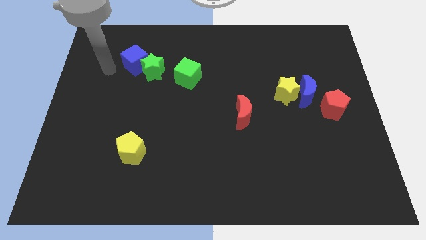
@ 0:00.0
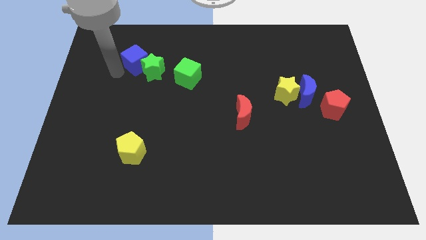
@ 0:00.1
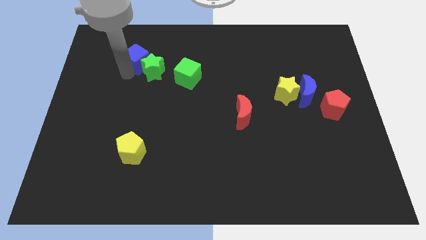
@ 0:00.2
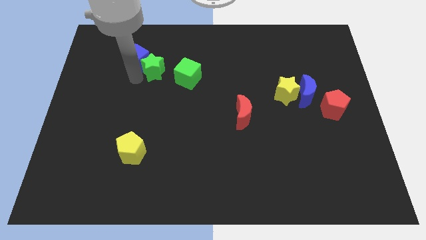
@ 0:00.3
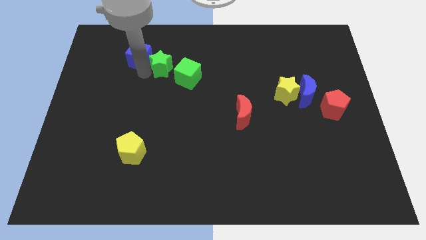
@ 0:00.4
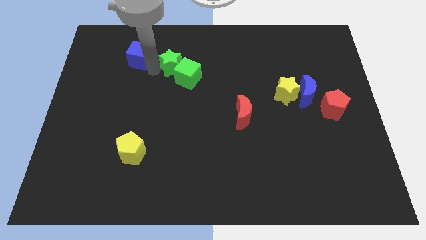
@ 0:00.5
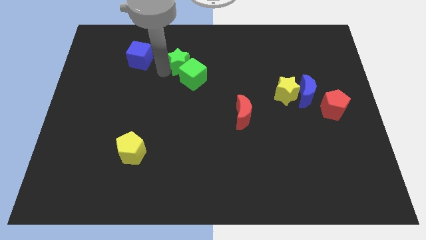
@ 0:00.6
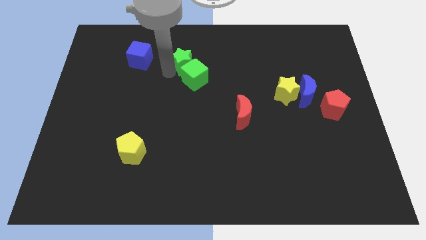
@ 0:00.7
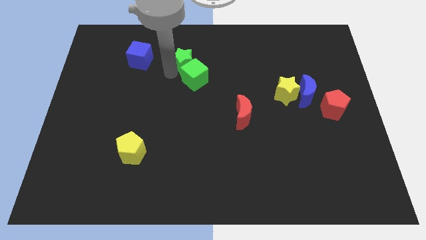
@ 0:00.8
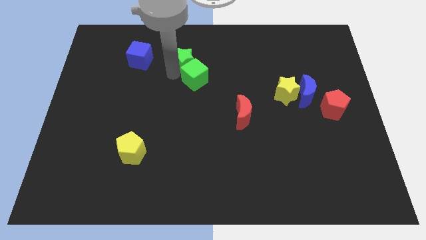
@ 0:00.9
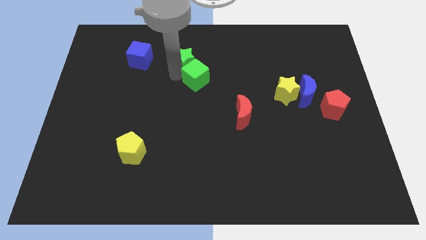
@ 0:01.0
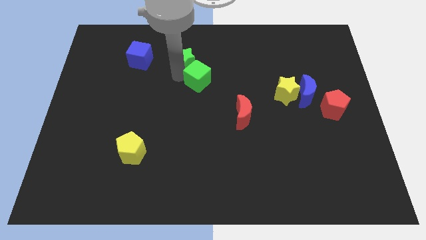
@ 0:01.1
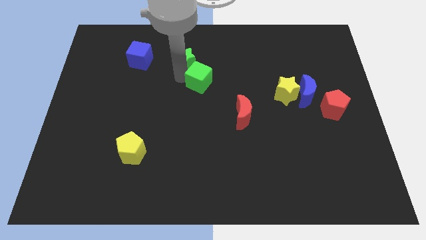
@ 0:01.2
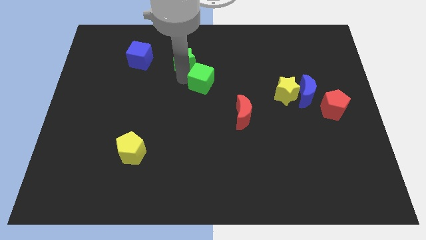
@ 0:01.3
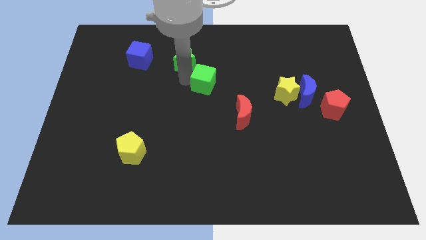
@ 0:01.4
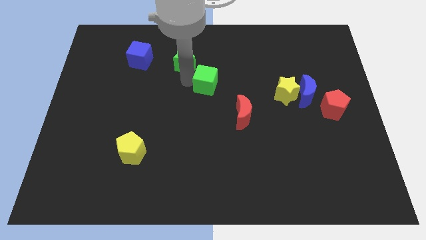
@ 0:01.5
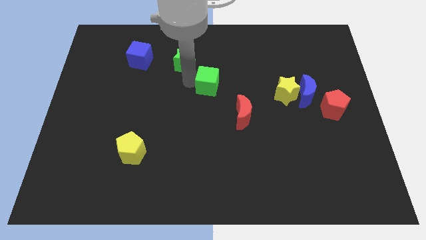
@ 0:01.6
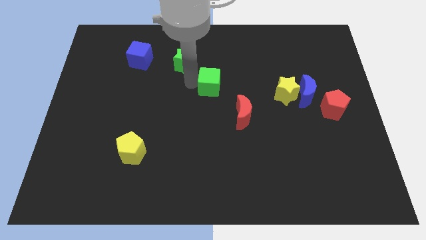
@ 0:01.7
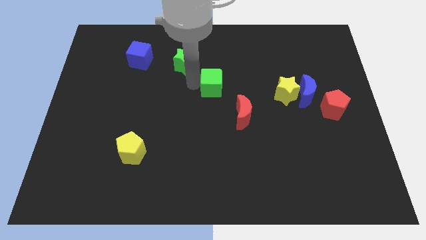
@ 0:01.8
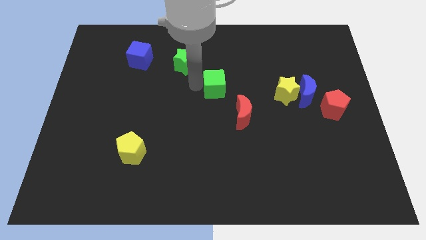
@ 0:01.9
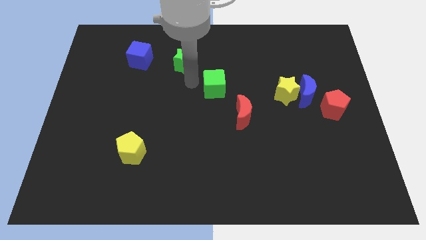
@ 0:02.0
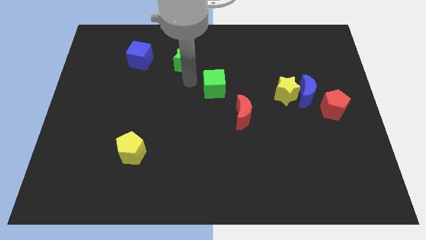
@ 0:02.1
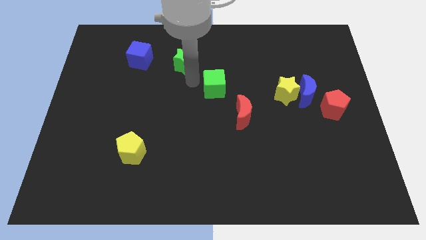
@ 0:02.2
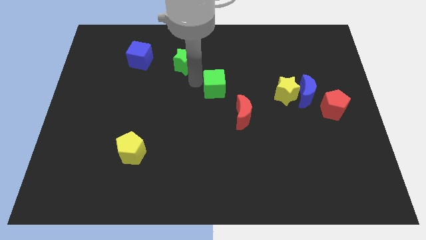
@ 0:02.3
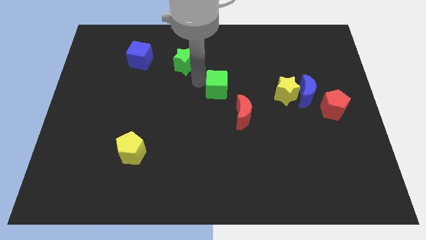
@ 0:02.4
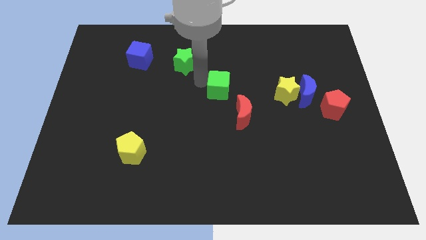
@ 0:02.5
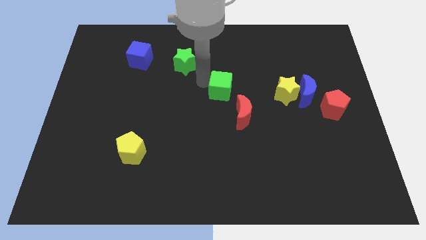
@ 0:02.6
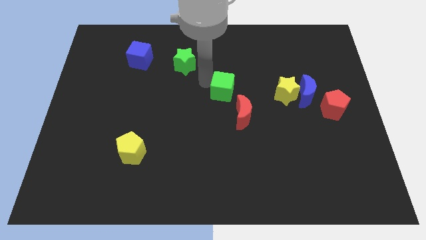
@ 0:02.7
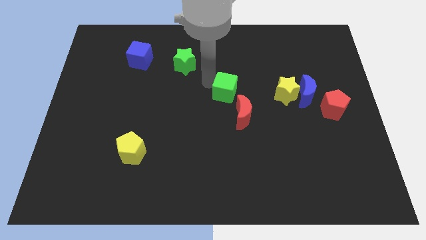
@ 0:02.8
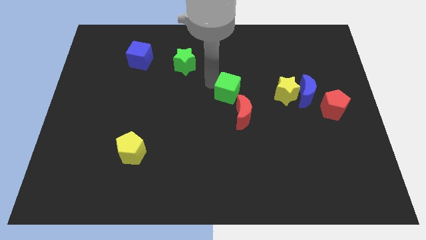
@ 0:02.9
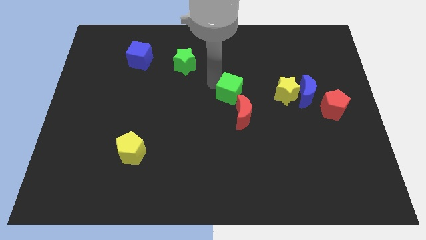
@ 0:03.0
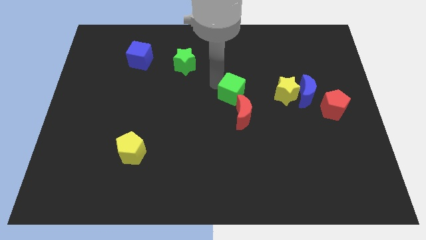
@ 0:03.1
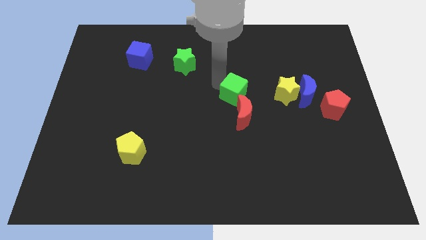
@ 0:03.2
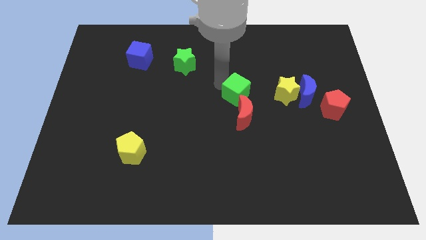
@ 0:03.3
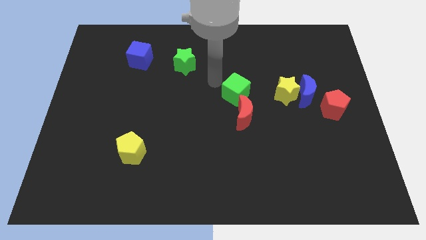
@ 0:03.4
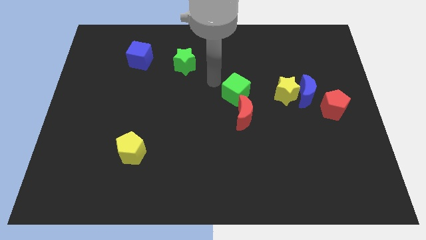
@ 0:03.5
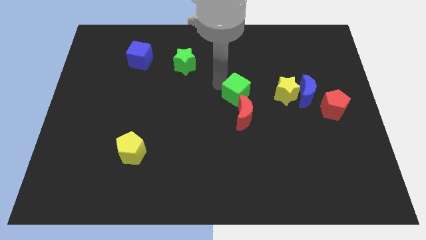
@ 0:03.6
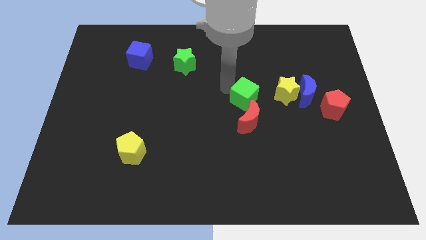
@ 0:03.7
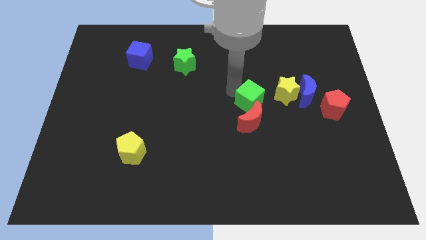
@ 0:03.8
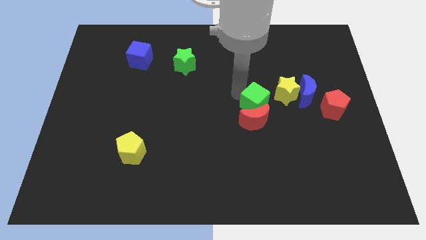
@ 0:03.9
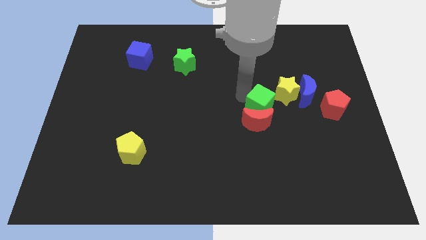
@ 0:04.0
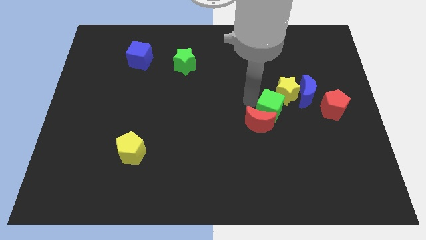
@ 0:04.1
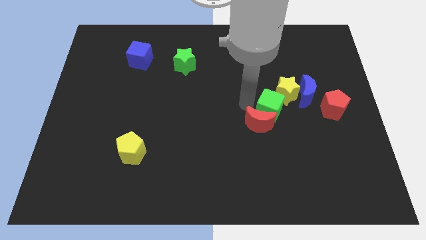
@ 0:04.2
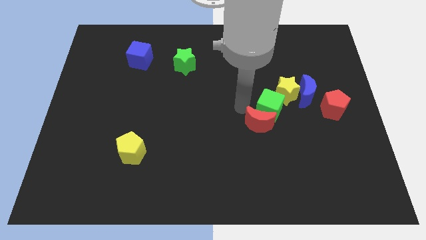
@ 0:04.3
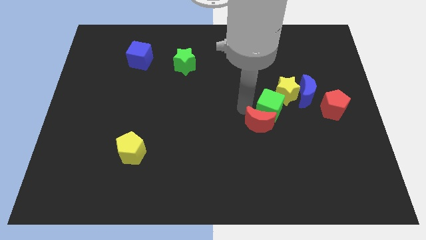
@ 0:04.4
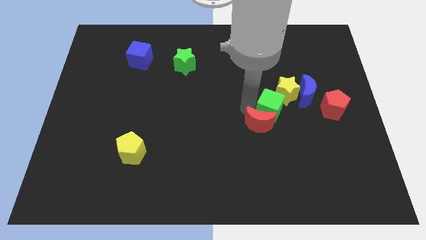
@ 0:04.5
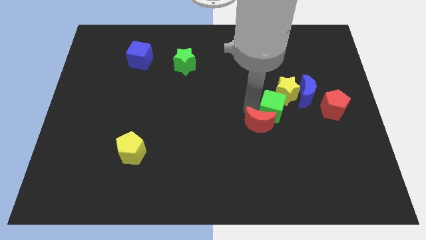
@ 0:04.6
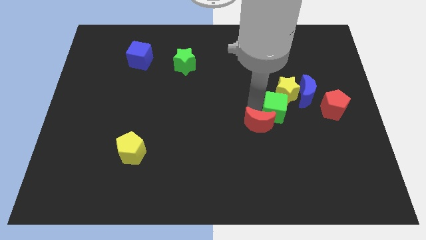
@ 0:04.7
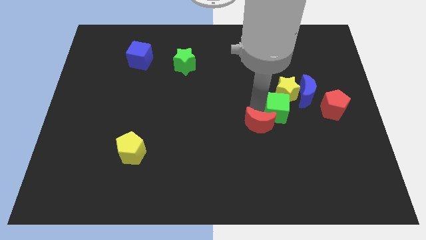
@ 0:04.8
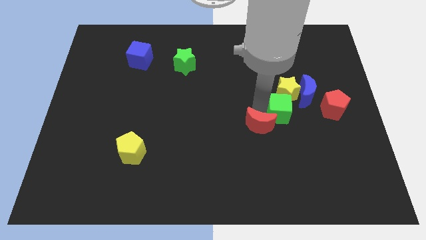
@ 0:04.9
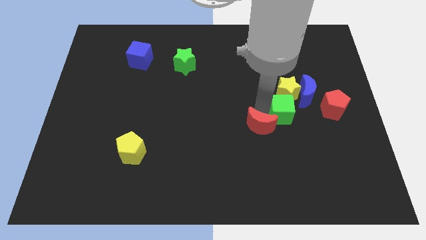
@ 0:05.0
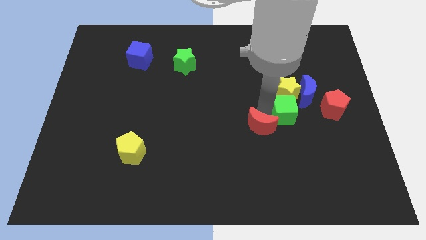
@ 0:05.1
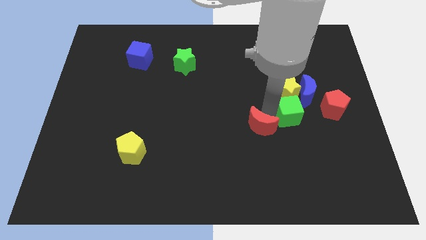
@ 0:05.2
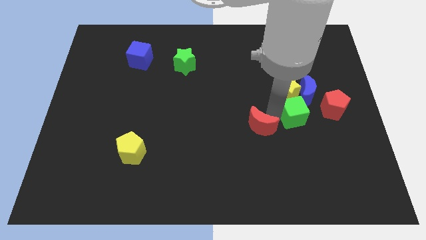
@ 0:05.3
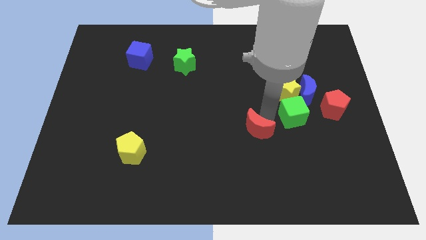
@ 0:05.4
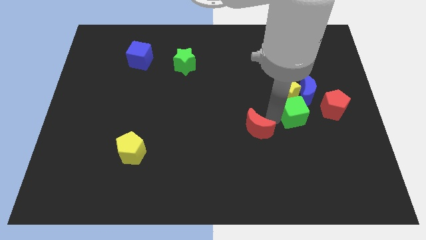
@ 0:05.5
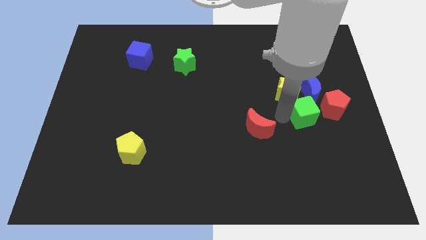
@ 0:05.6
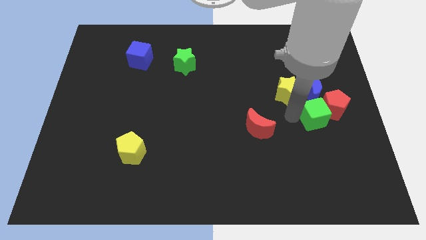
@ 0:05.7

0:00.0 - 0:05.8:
slide the green cube towards the red pentagon

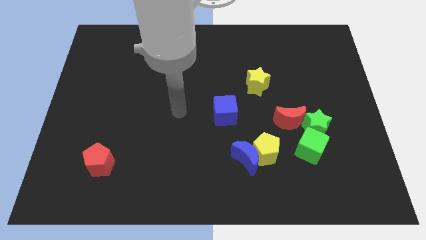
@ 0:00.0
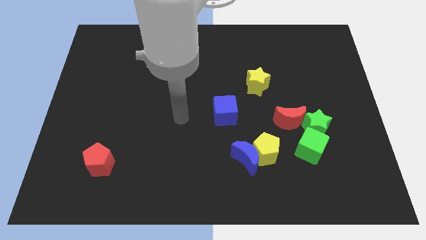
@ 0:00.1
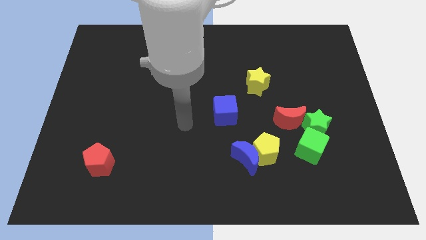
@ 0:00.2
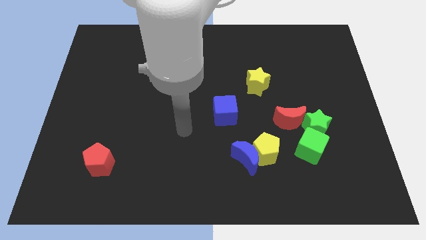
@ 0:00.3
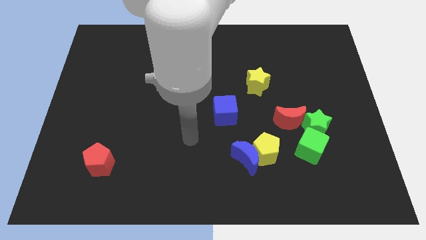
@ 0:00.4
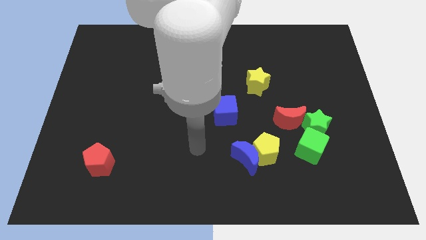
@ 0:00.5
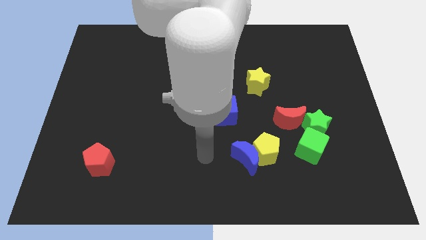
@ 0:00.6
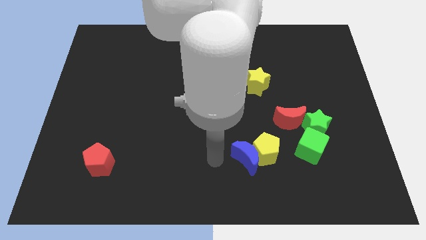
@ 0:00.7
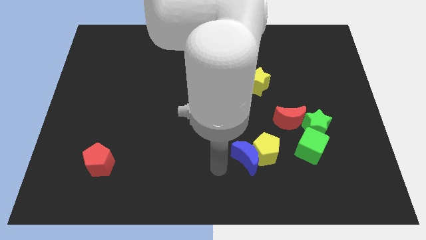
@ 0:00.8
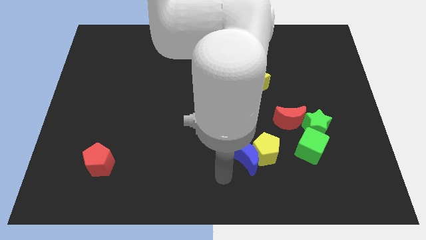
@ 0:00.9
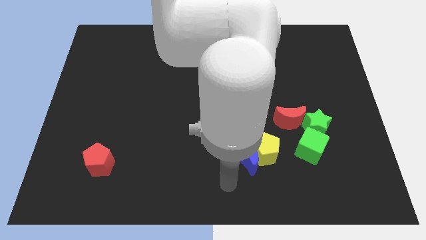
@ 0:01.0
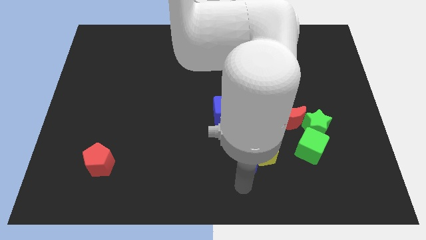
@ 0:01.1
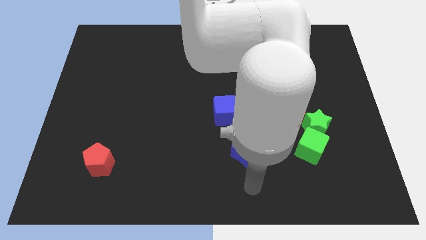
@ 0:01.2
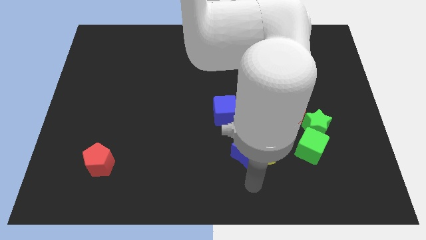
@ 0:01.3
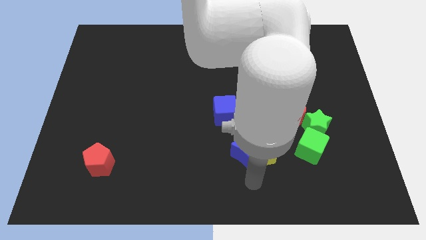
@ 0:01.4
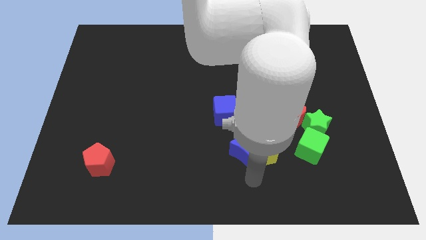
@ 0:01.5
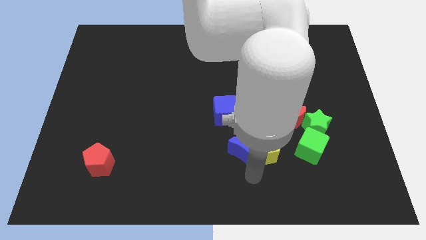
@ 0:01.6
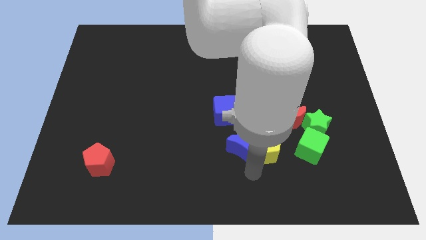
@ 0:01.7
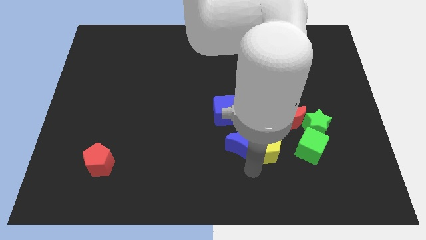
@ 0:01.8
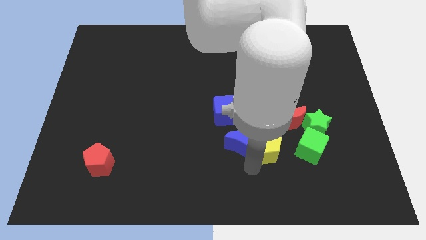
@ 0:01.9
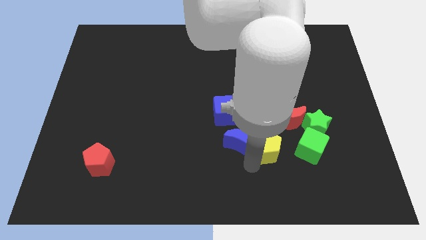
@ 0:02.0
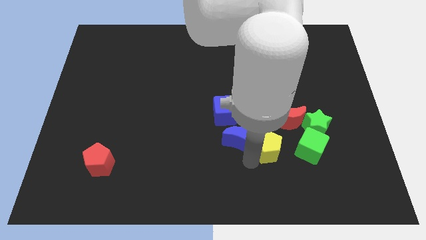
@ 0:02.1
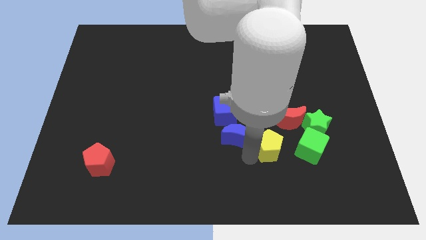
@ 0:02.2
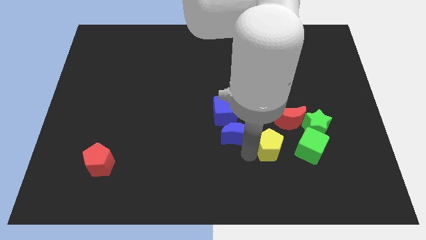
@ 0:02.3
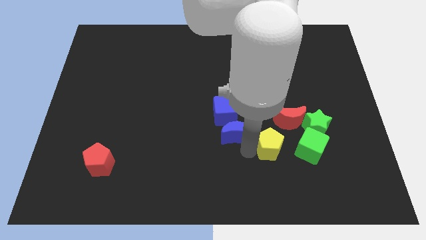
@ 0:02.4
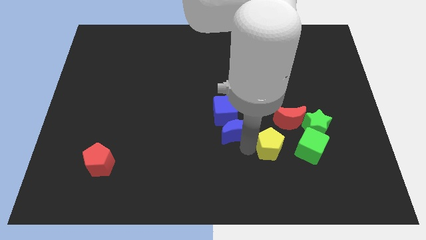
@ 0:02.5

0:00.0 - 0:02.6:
push the blue moon next to the blue cube
